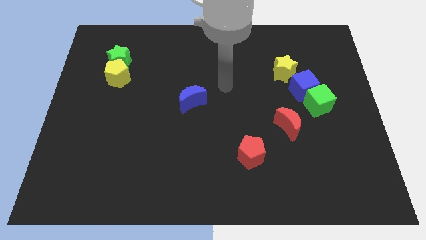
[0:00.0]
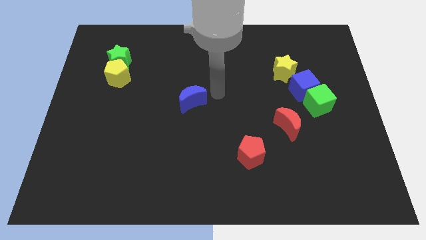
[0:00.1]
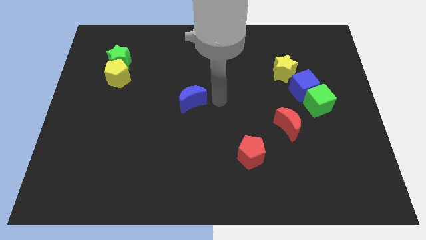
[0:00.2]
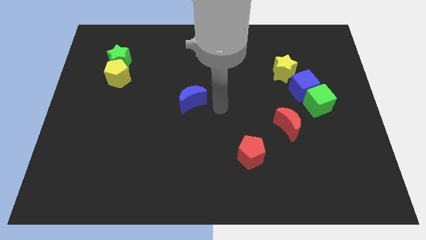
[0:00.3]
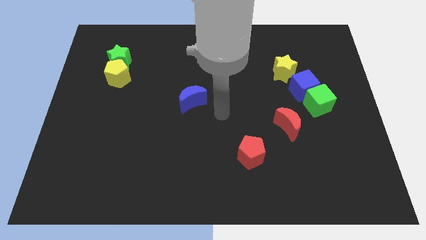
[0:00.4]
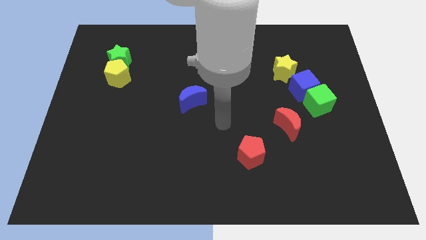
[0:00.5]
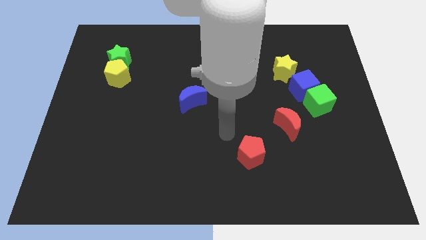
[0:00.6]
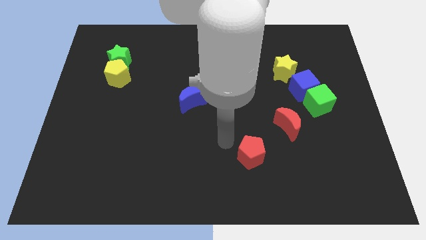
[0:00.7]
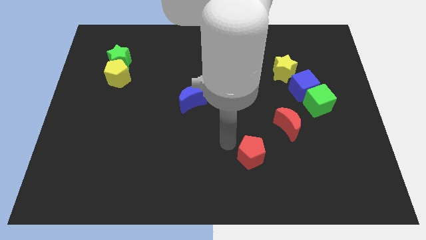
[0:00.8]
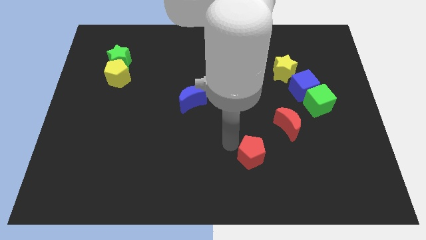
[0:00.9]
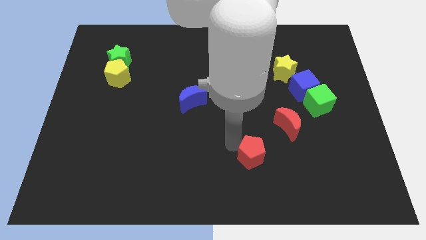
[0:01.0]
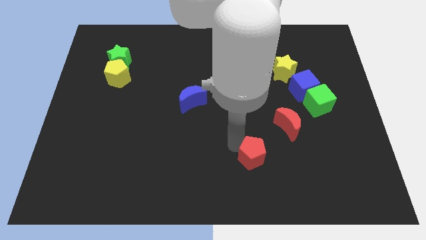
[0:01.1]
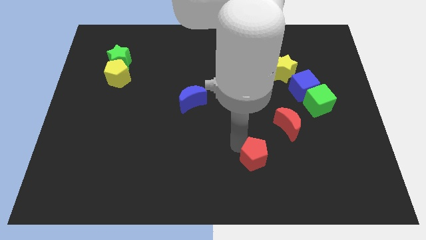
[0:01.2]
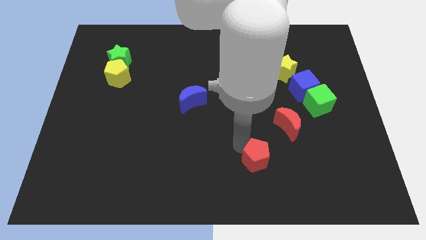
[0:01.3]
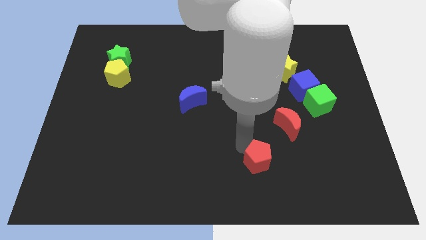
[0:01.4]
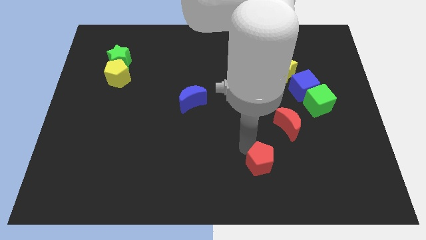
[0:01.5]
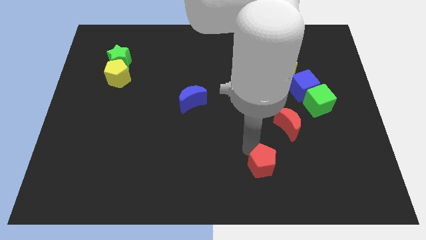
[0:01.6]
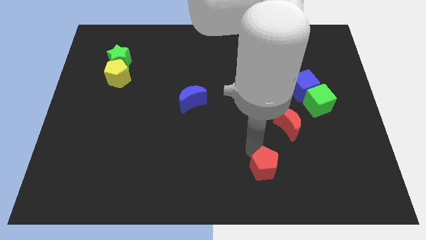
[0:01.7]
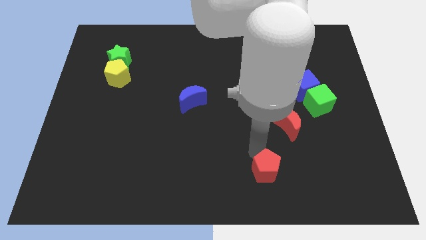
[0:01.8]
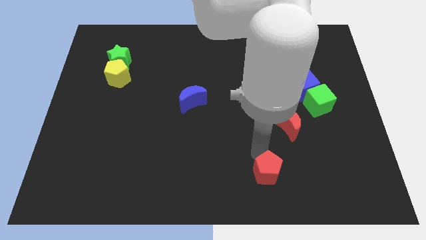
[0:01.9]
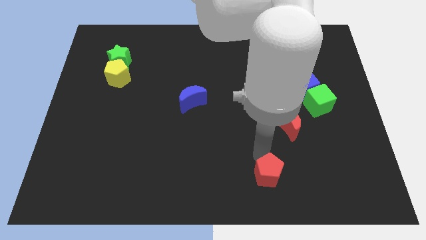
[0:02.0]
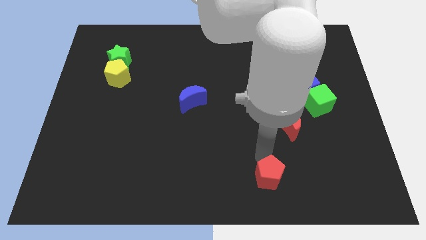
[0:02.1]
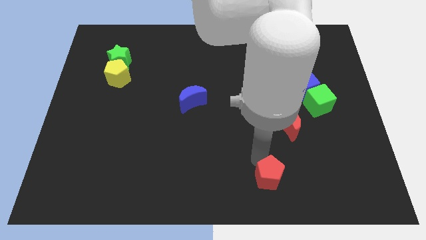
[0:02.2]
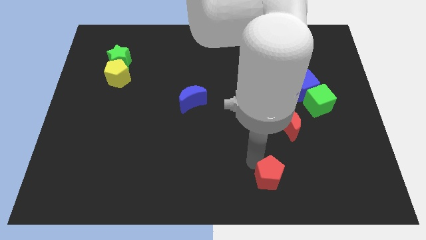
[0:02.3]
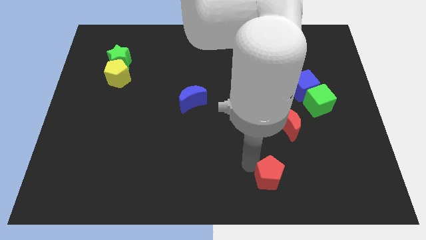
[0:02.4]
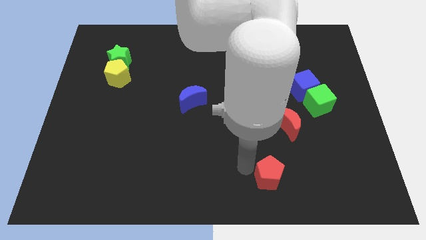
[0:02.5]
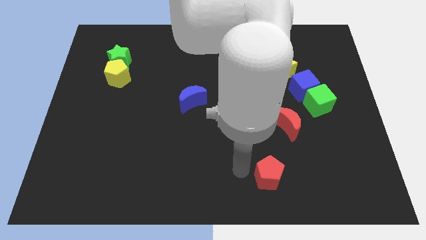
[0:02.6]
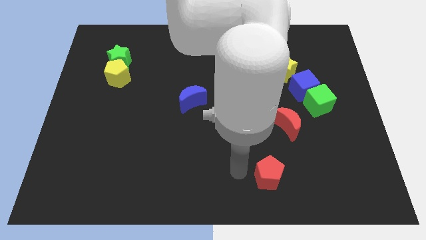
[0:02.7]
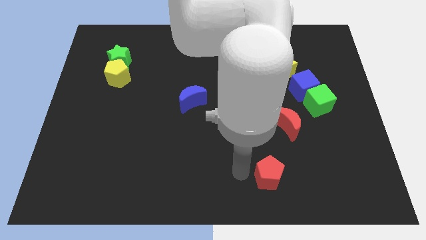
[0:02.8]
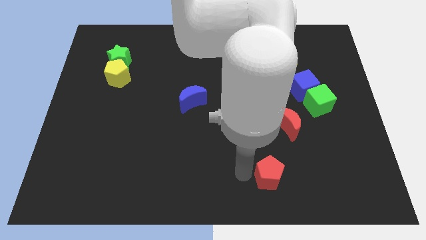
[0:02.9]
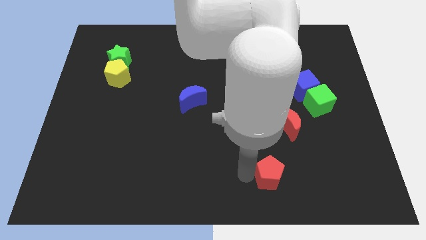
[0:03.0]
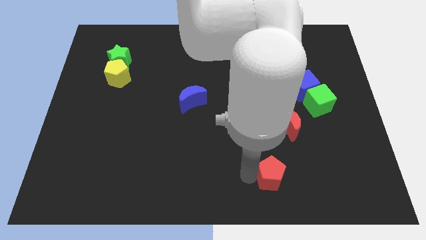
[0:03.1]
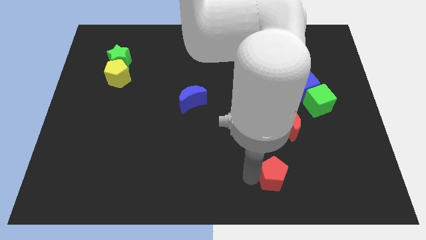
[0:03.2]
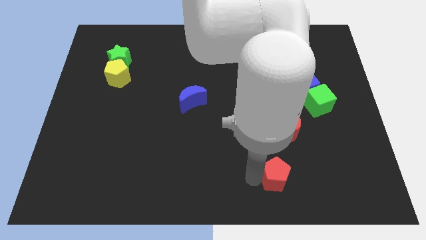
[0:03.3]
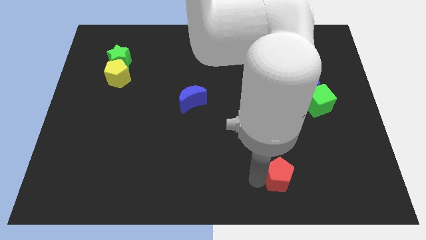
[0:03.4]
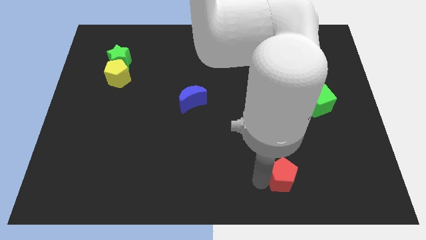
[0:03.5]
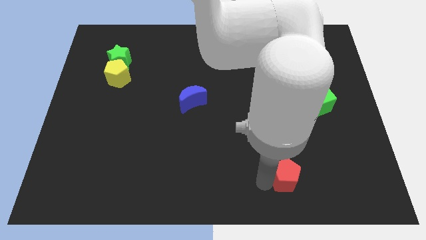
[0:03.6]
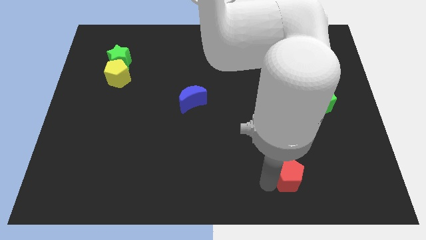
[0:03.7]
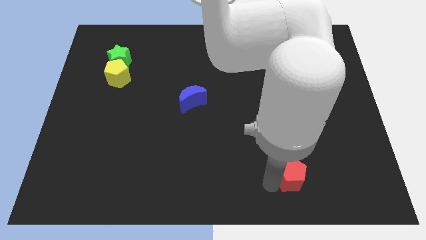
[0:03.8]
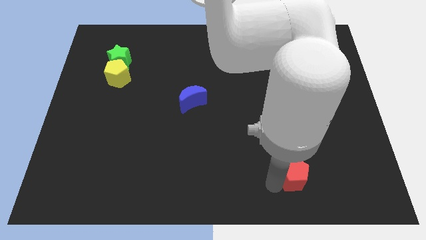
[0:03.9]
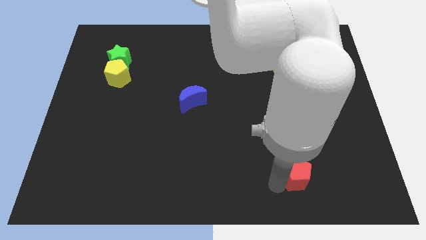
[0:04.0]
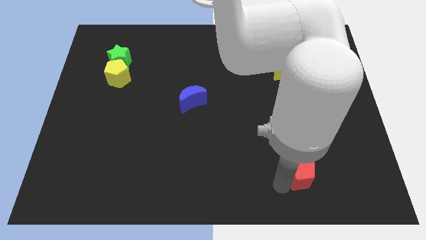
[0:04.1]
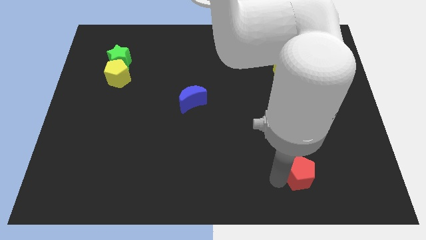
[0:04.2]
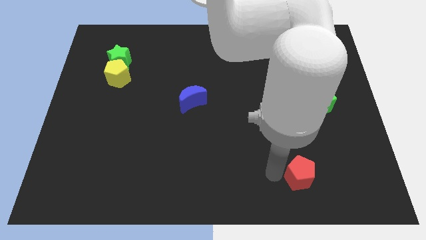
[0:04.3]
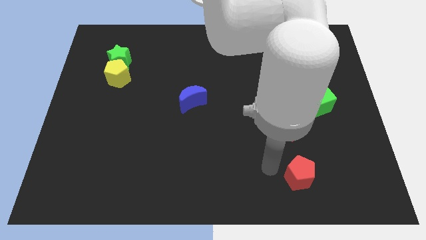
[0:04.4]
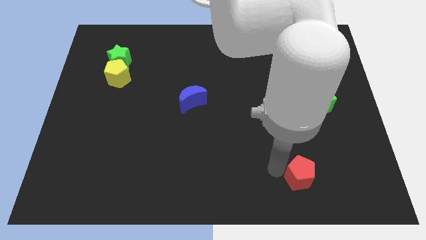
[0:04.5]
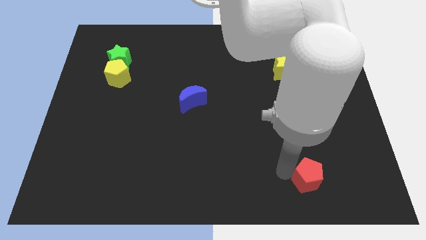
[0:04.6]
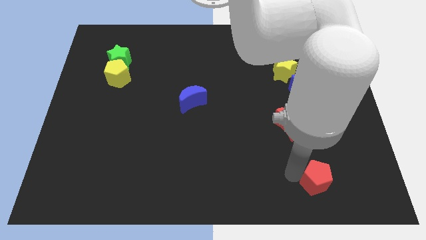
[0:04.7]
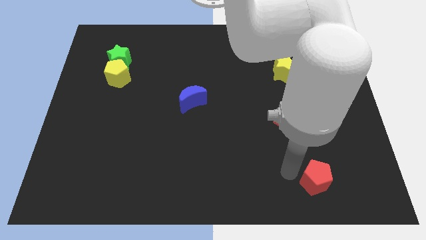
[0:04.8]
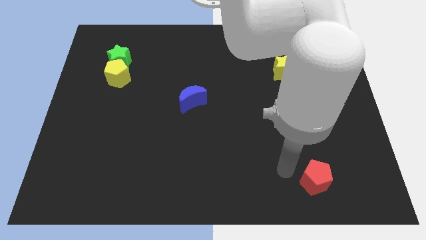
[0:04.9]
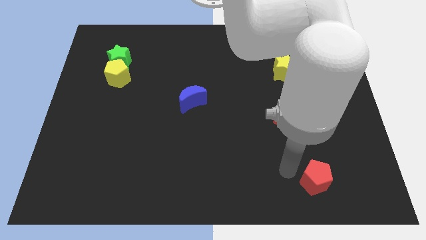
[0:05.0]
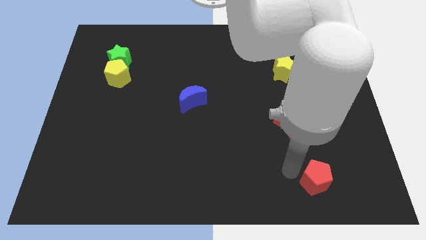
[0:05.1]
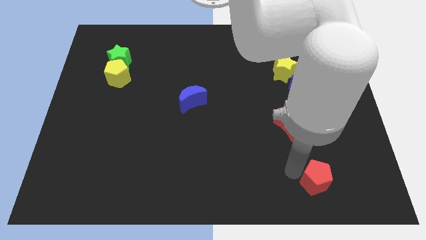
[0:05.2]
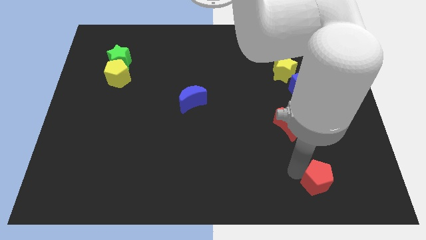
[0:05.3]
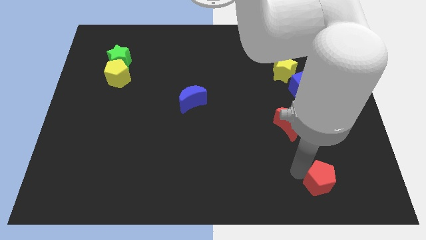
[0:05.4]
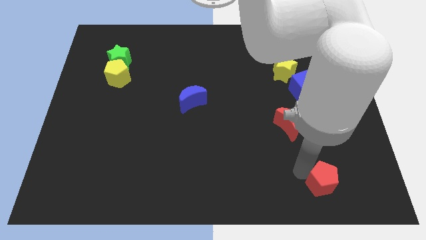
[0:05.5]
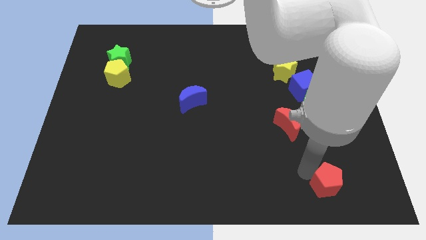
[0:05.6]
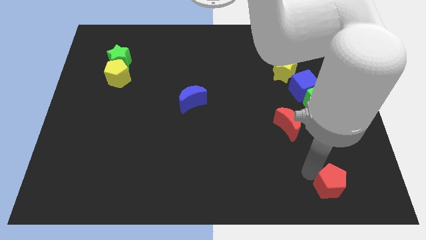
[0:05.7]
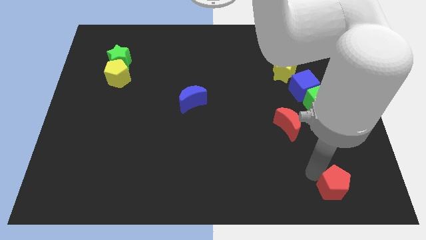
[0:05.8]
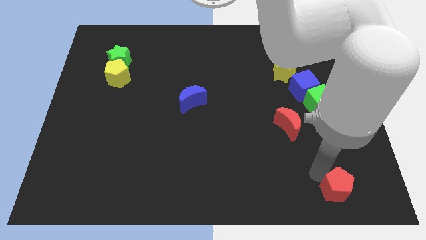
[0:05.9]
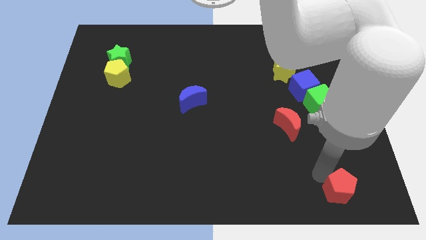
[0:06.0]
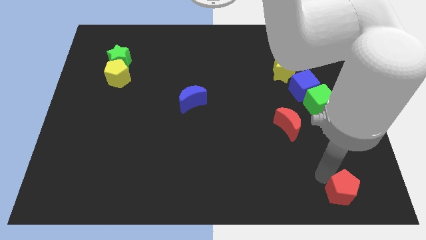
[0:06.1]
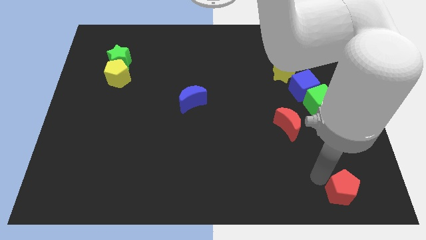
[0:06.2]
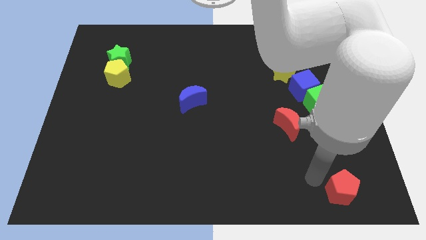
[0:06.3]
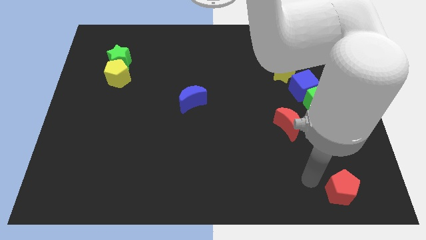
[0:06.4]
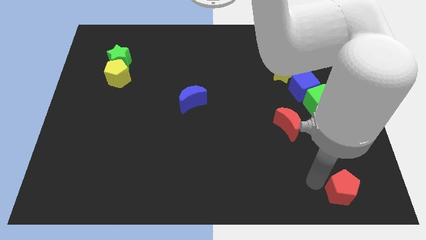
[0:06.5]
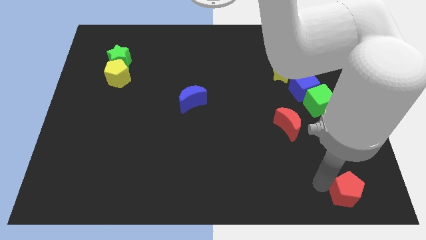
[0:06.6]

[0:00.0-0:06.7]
push the red pentagon to the bottom right corner
